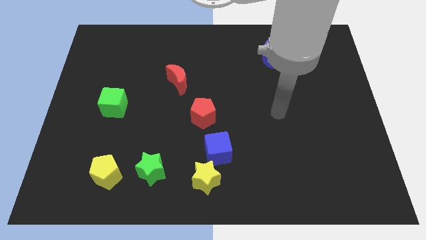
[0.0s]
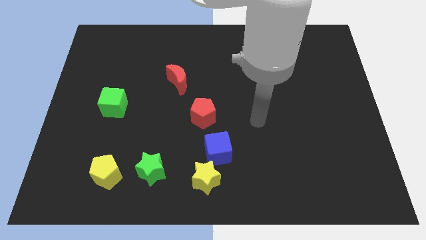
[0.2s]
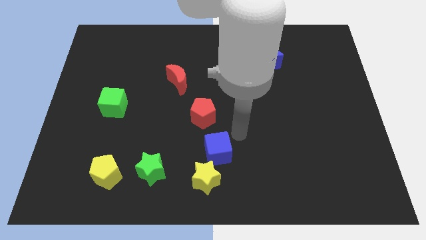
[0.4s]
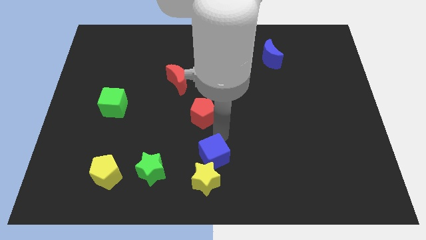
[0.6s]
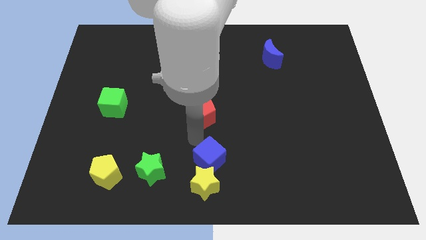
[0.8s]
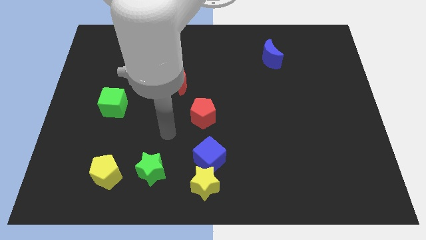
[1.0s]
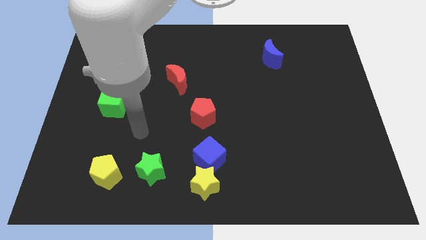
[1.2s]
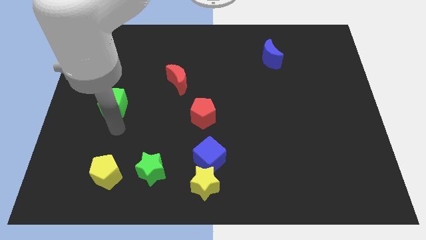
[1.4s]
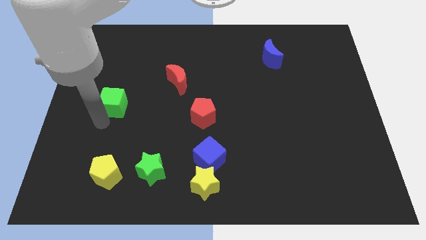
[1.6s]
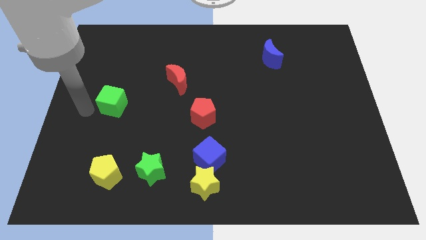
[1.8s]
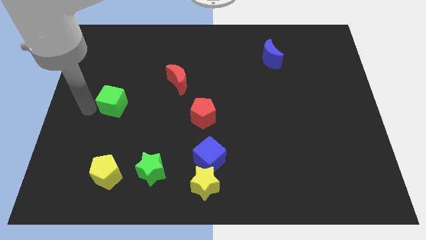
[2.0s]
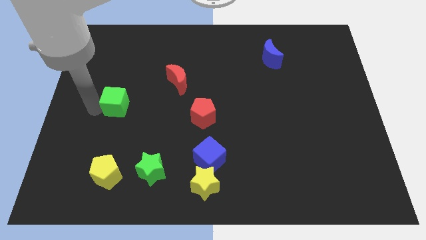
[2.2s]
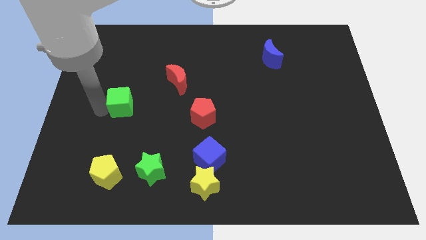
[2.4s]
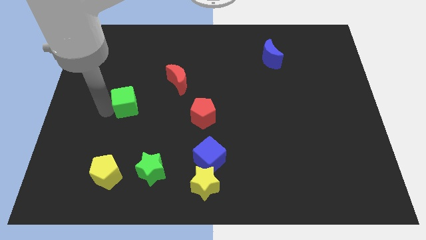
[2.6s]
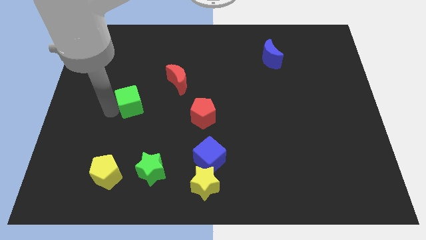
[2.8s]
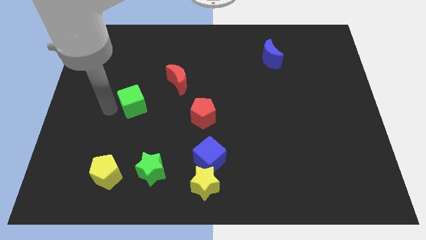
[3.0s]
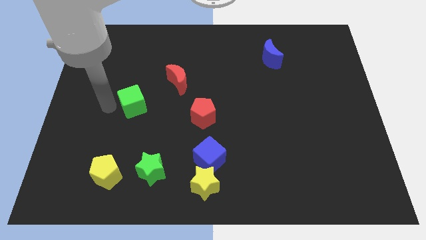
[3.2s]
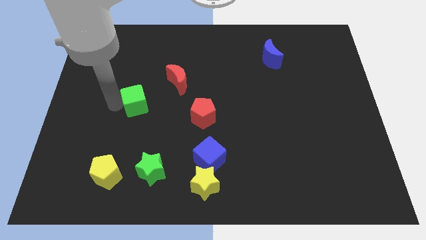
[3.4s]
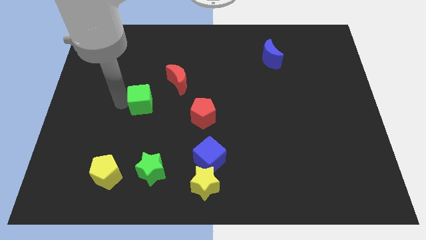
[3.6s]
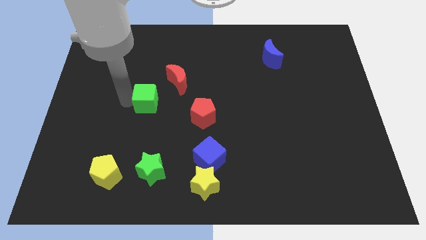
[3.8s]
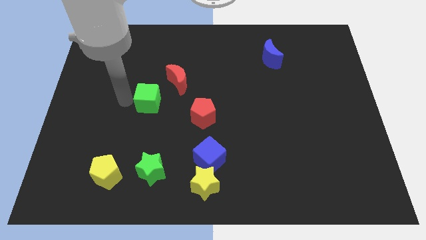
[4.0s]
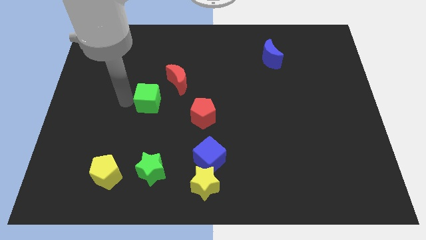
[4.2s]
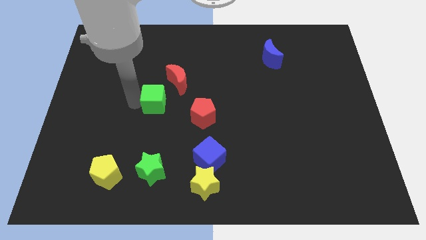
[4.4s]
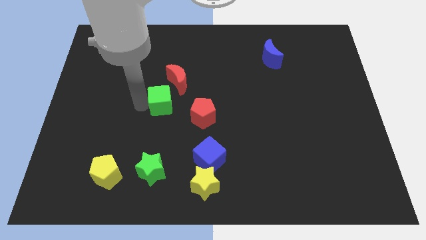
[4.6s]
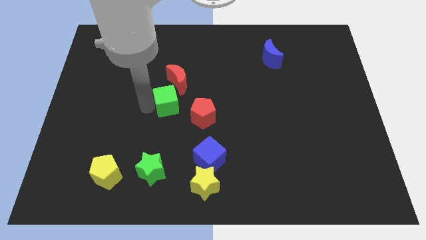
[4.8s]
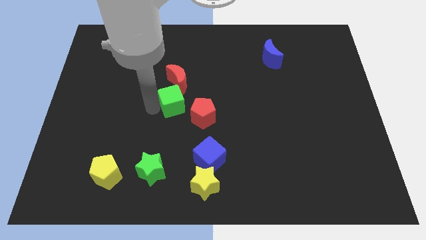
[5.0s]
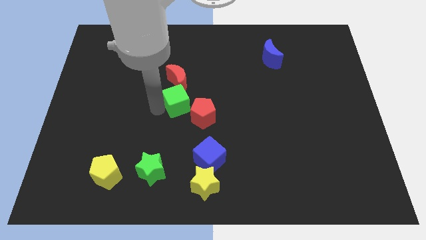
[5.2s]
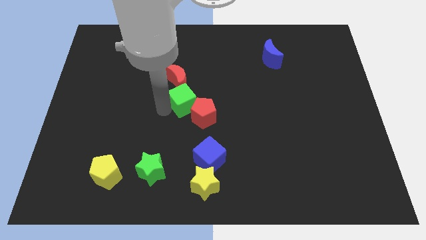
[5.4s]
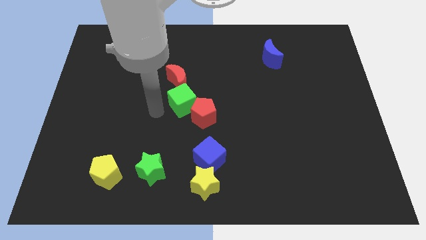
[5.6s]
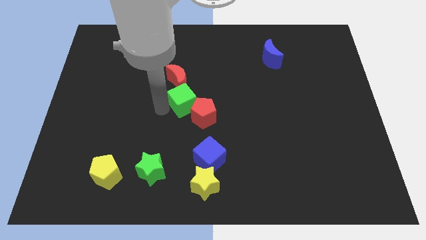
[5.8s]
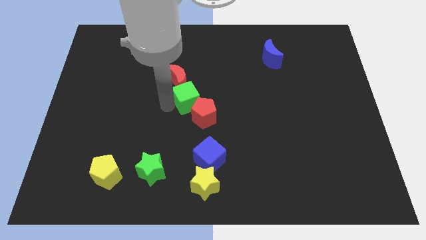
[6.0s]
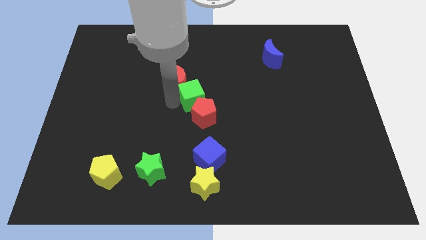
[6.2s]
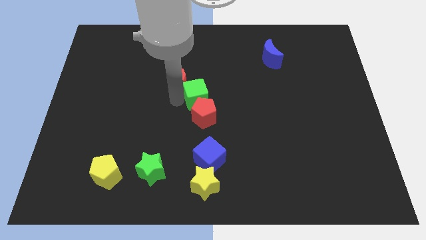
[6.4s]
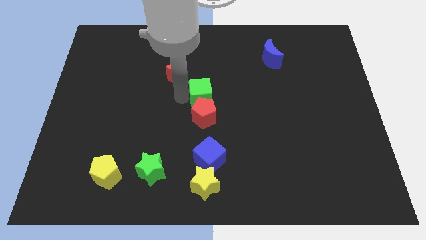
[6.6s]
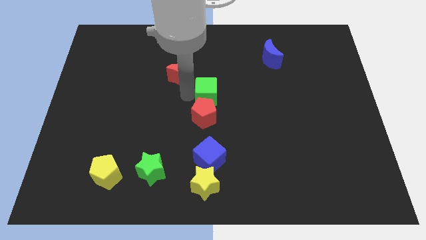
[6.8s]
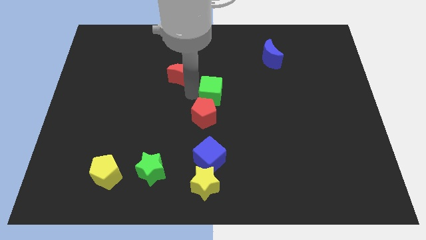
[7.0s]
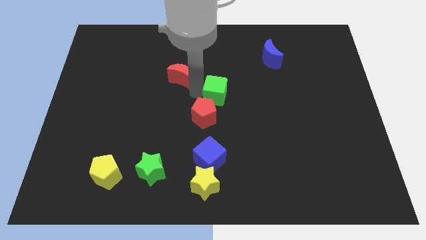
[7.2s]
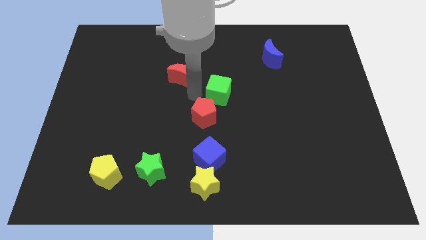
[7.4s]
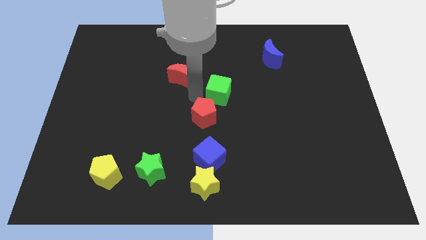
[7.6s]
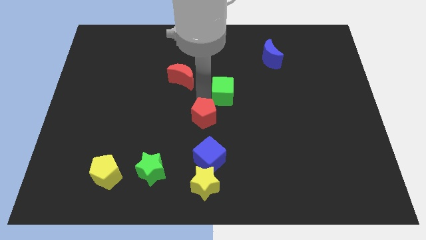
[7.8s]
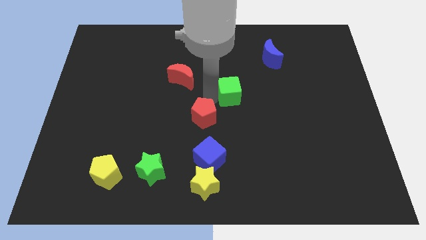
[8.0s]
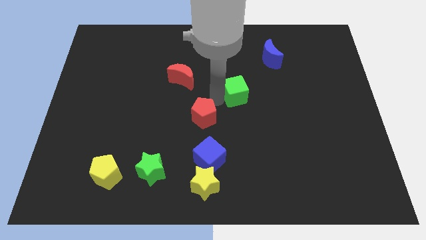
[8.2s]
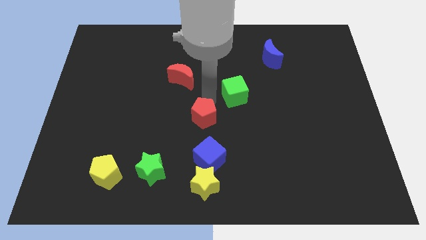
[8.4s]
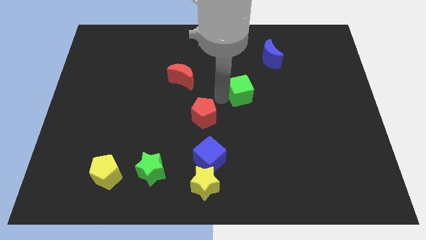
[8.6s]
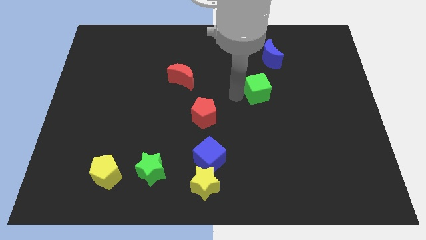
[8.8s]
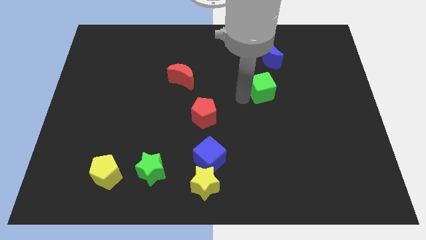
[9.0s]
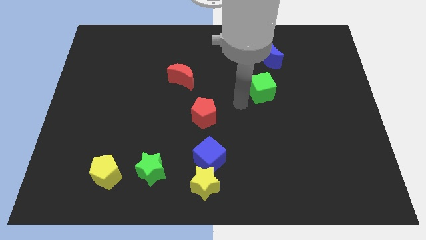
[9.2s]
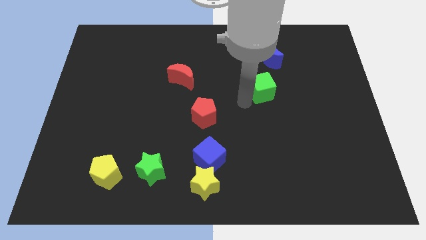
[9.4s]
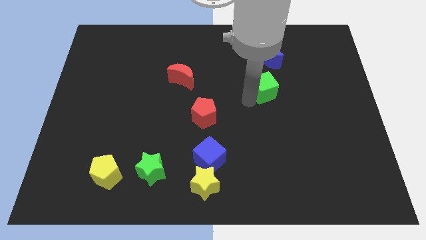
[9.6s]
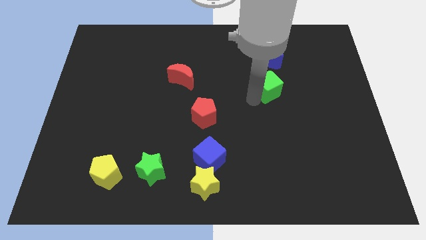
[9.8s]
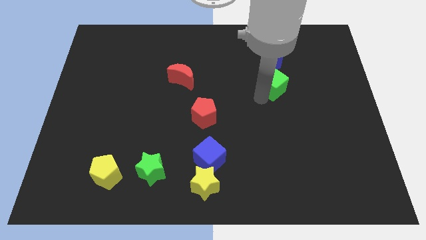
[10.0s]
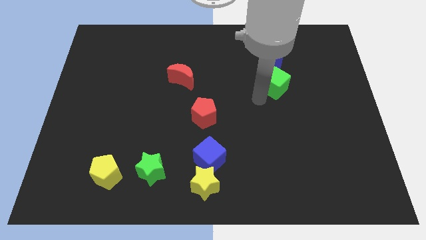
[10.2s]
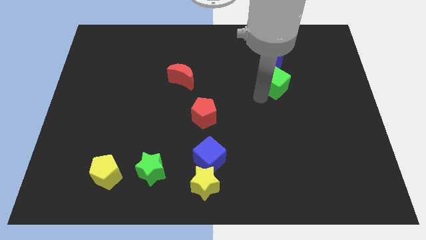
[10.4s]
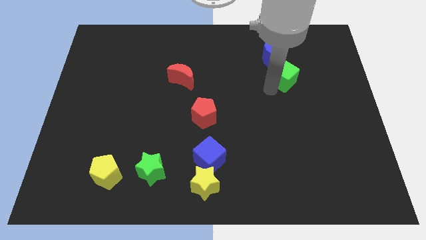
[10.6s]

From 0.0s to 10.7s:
push the green cube to the bottom right of the blue moon

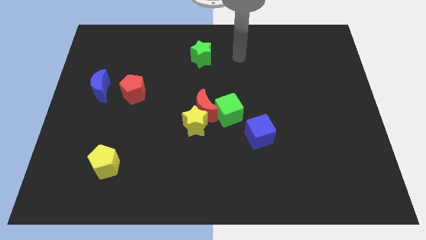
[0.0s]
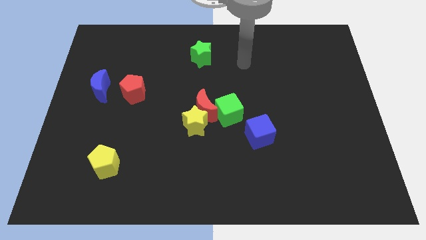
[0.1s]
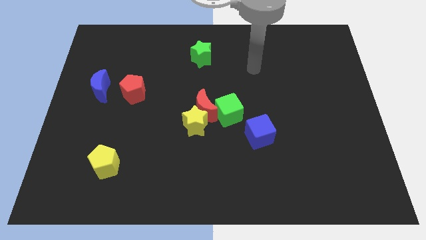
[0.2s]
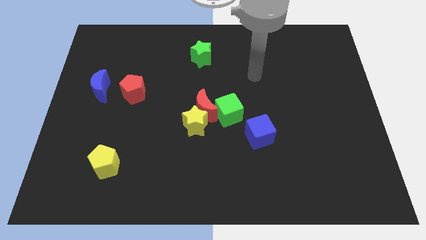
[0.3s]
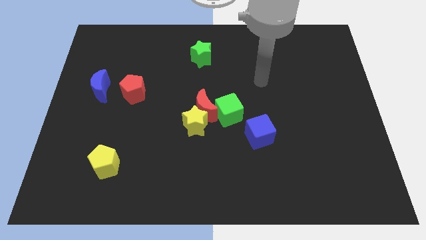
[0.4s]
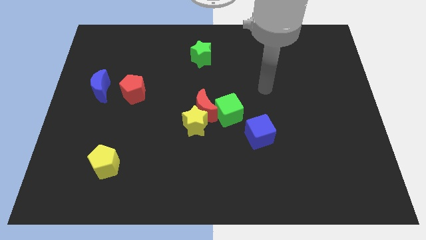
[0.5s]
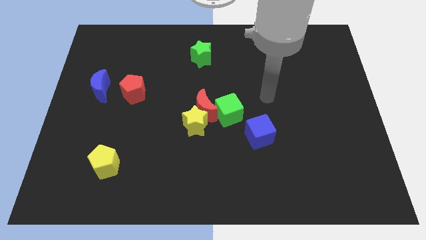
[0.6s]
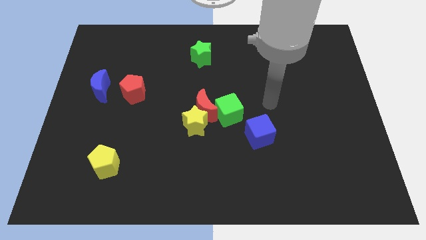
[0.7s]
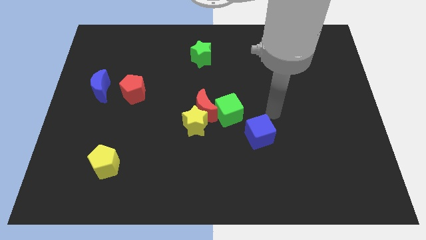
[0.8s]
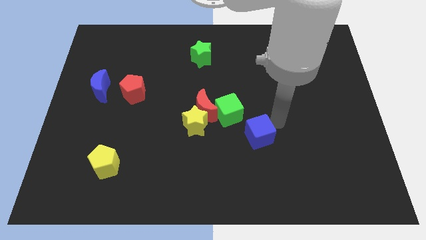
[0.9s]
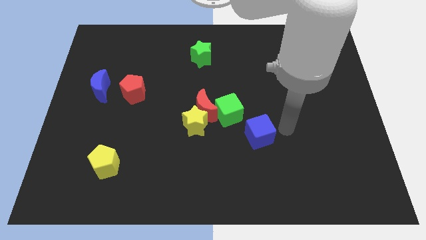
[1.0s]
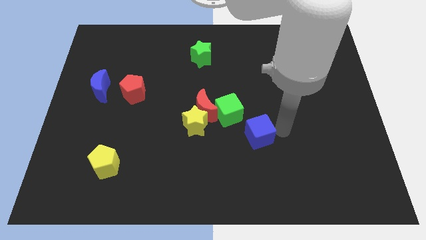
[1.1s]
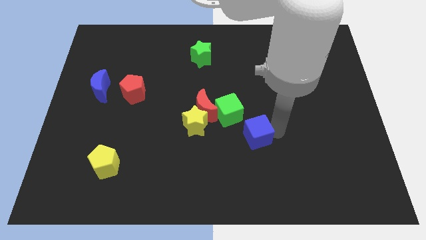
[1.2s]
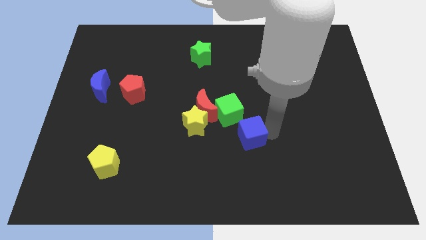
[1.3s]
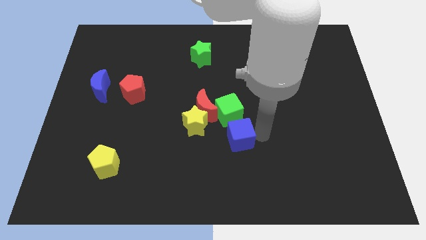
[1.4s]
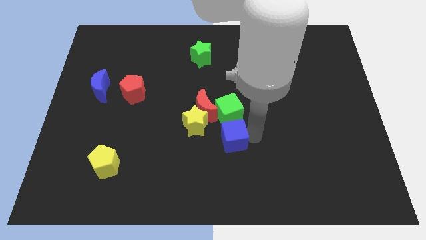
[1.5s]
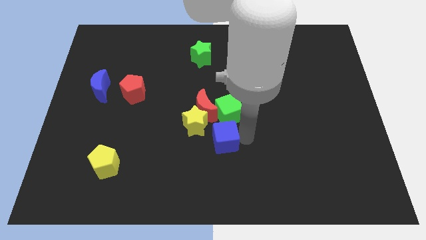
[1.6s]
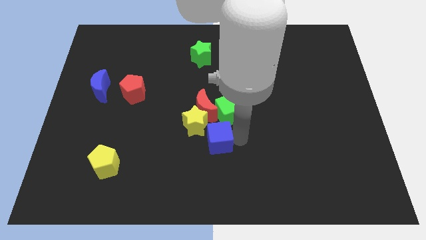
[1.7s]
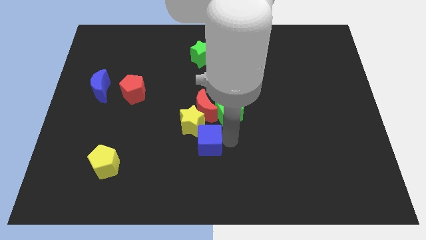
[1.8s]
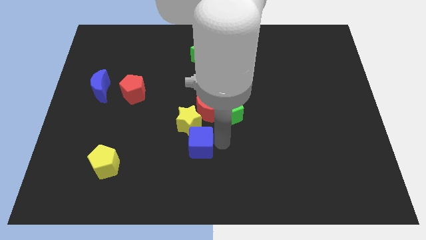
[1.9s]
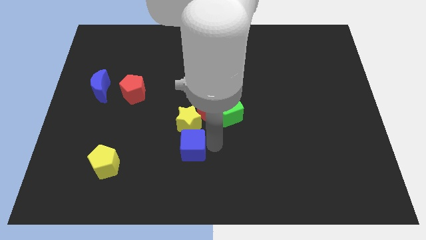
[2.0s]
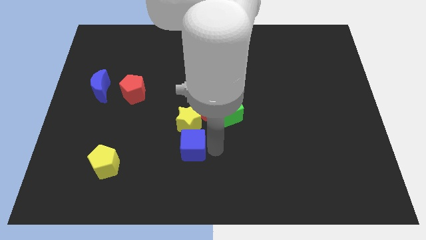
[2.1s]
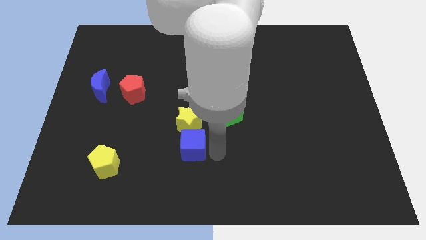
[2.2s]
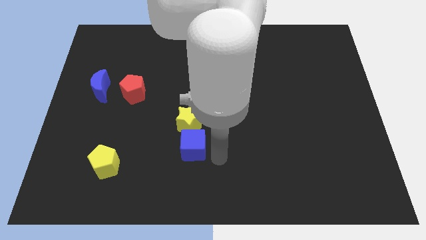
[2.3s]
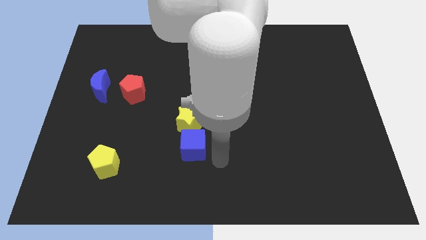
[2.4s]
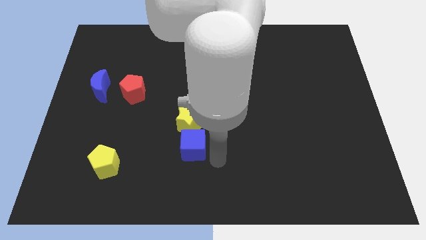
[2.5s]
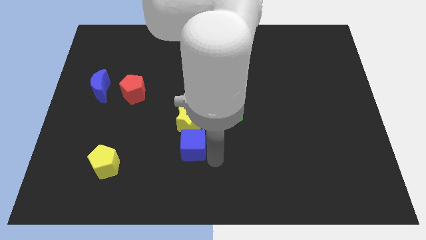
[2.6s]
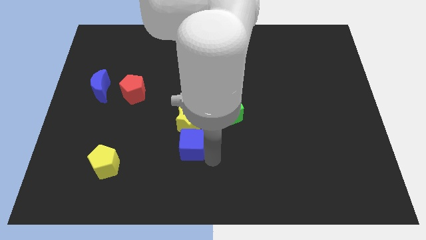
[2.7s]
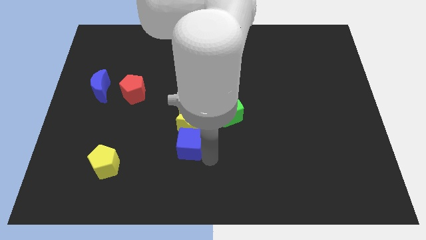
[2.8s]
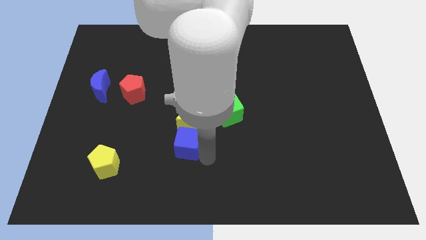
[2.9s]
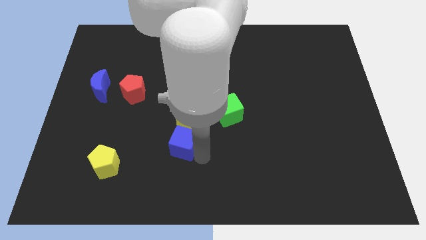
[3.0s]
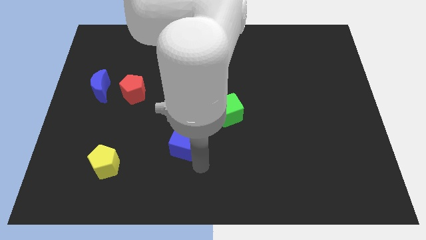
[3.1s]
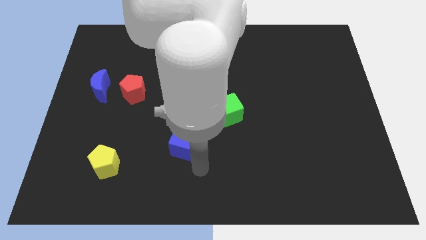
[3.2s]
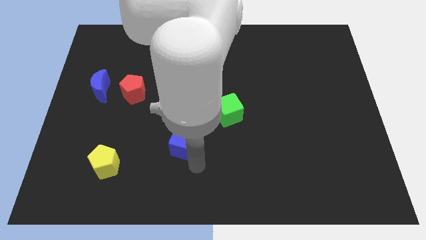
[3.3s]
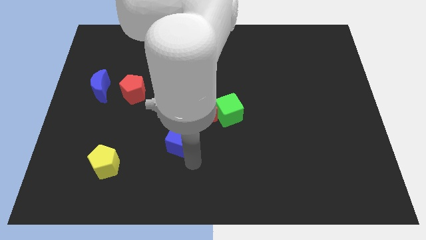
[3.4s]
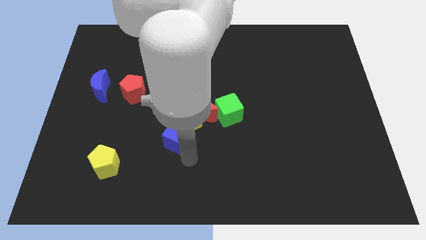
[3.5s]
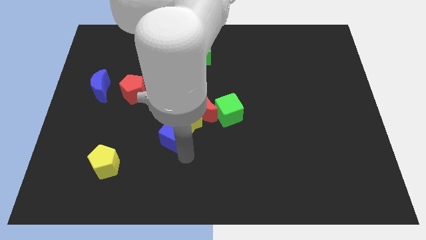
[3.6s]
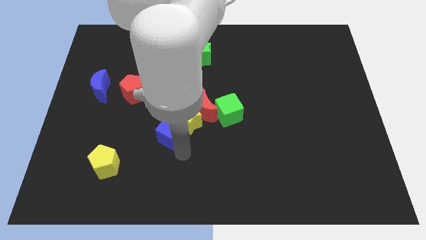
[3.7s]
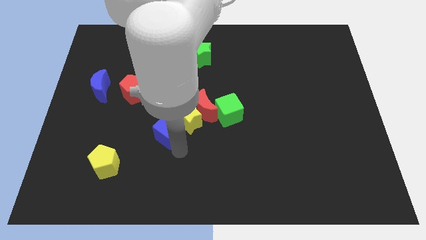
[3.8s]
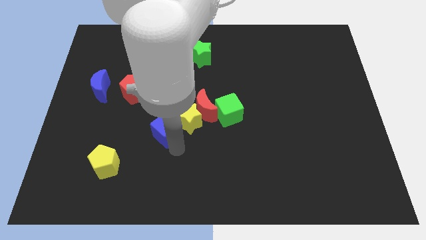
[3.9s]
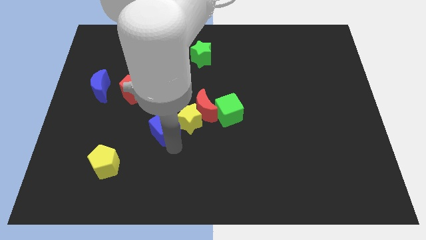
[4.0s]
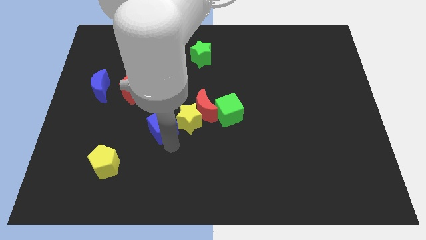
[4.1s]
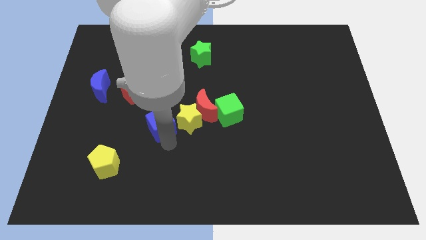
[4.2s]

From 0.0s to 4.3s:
slide the blue cube to the left side of the red moon
